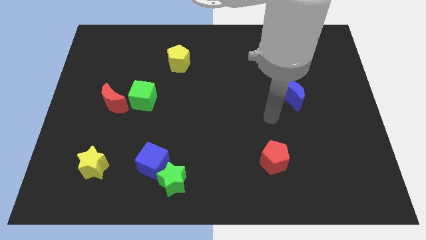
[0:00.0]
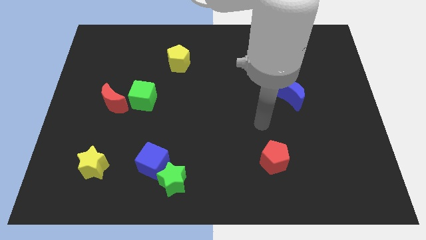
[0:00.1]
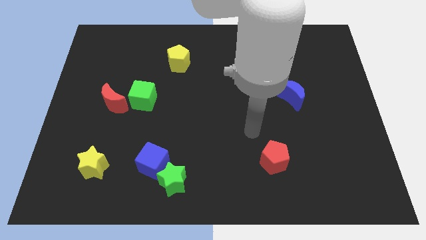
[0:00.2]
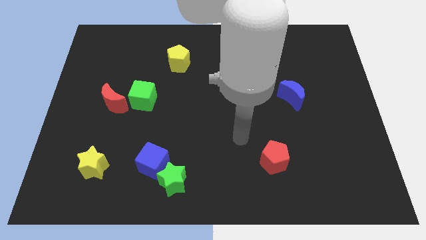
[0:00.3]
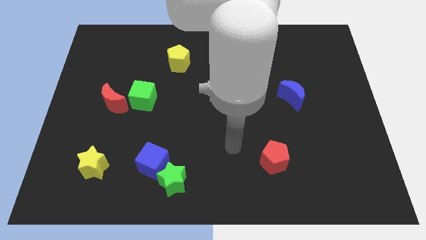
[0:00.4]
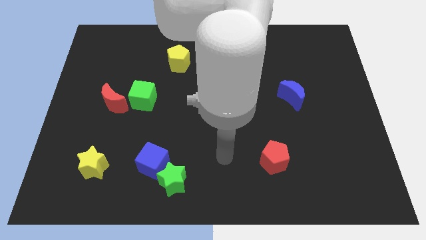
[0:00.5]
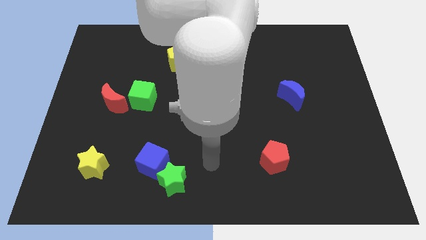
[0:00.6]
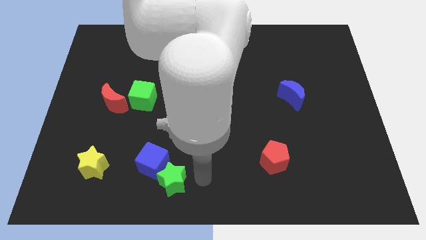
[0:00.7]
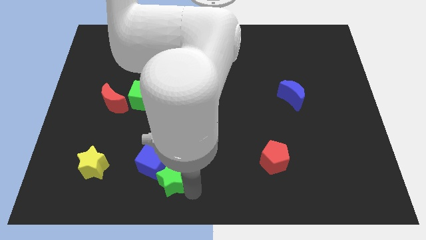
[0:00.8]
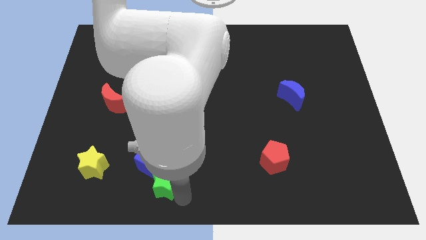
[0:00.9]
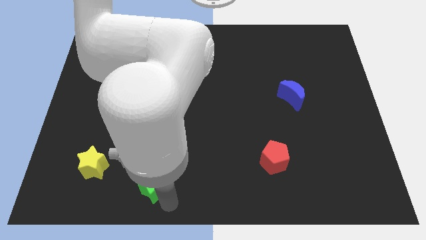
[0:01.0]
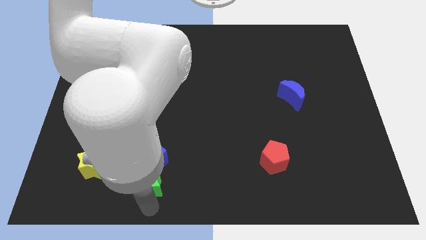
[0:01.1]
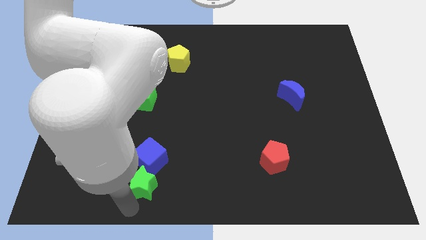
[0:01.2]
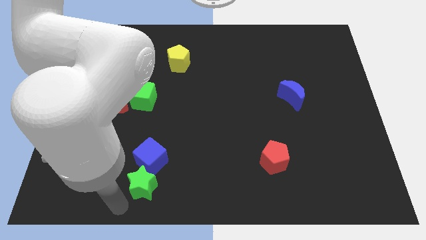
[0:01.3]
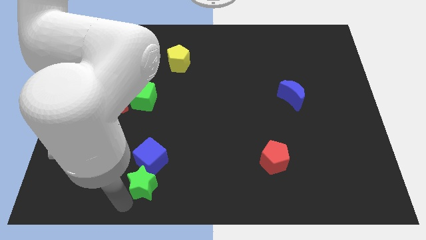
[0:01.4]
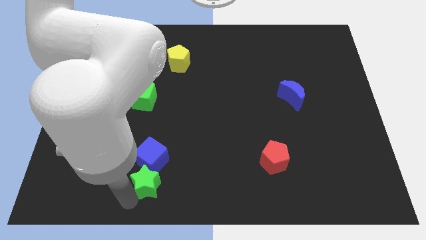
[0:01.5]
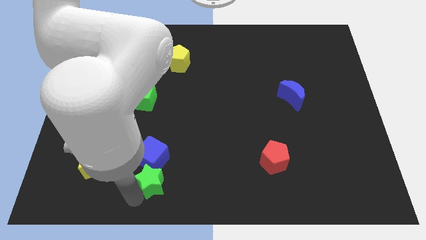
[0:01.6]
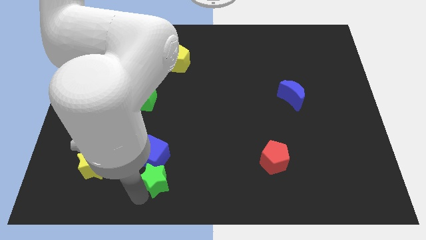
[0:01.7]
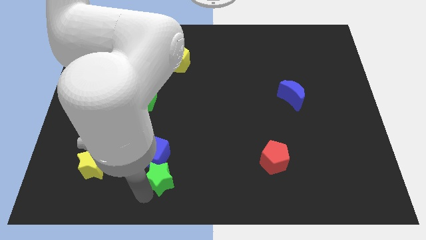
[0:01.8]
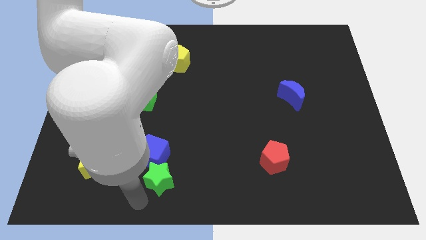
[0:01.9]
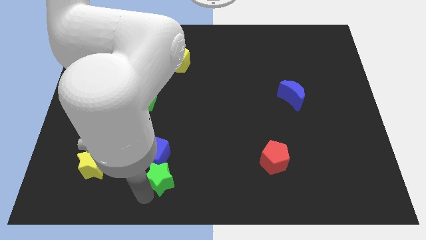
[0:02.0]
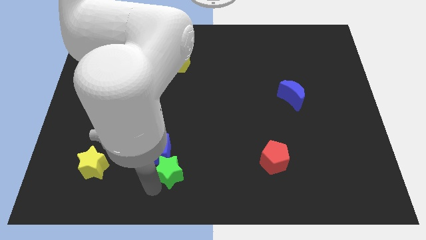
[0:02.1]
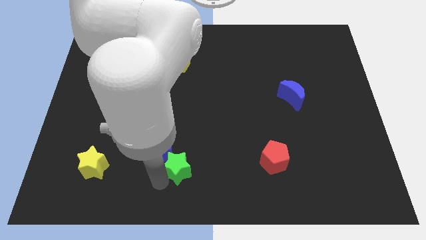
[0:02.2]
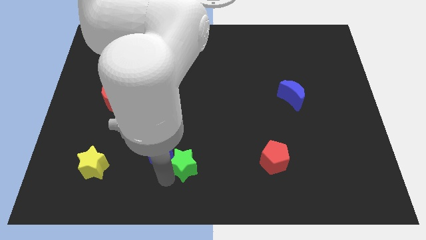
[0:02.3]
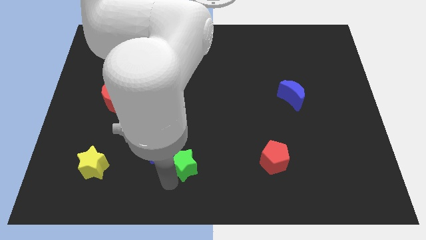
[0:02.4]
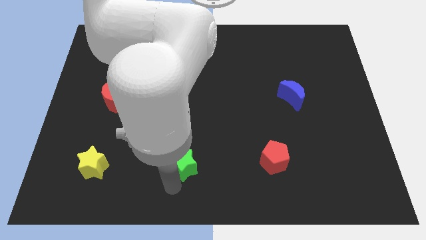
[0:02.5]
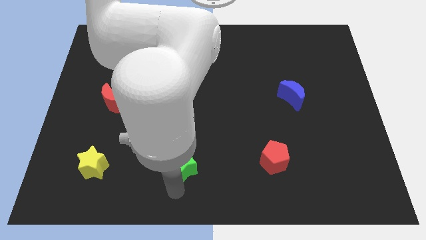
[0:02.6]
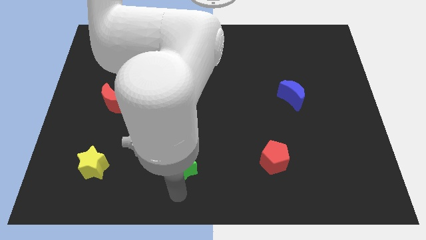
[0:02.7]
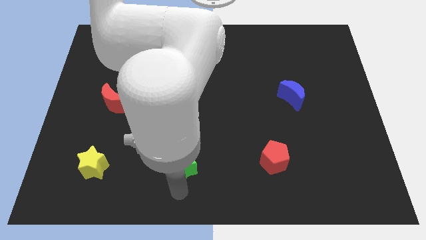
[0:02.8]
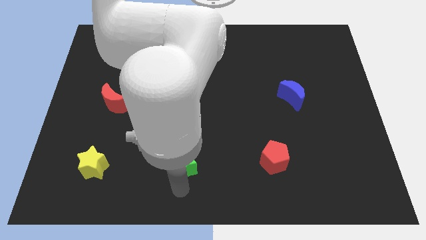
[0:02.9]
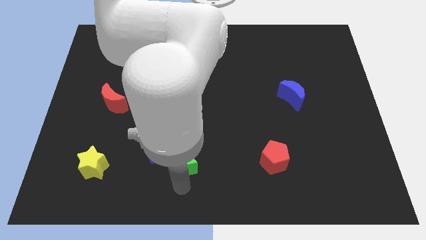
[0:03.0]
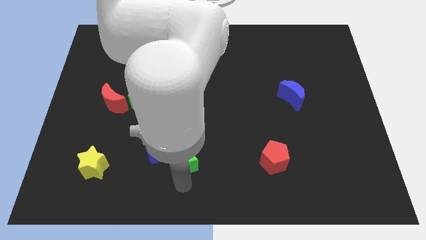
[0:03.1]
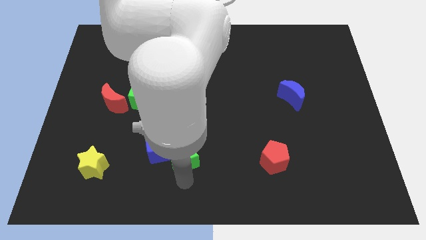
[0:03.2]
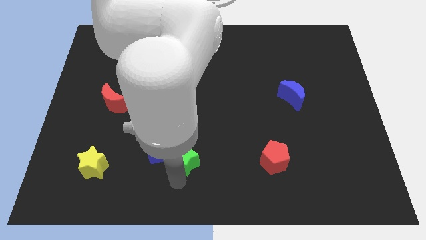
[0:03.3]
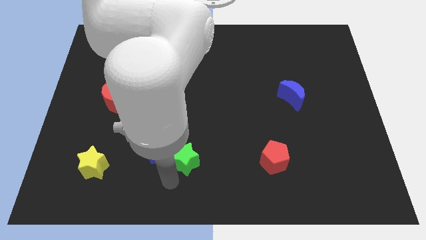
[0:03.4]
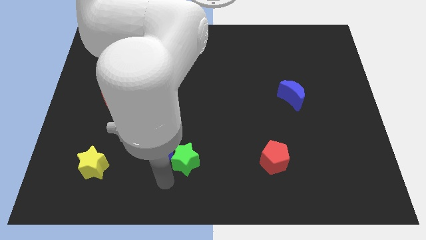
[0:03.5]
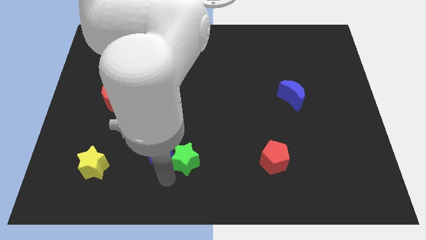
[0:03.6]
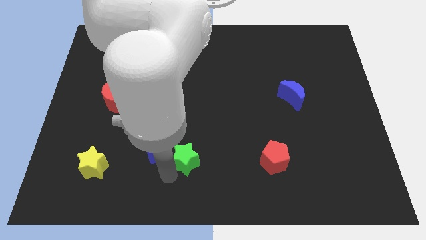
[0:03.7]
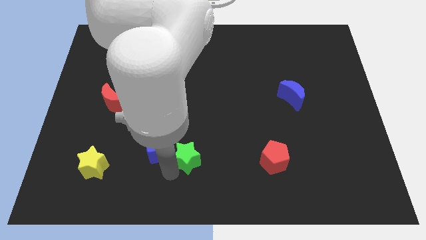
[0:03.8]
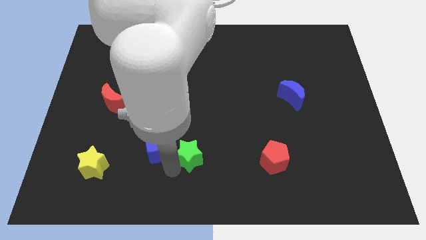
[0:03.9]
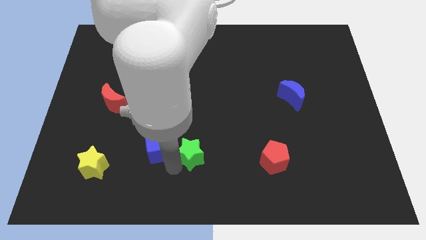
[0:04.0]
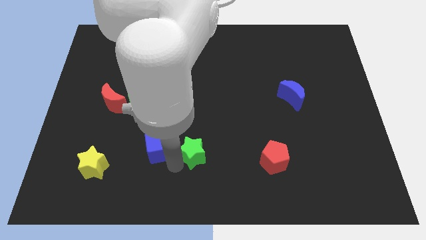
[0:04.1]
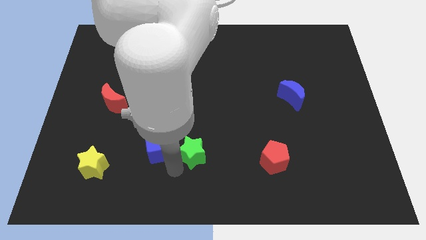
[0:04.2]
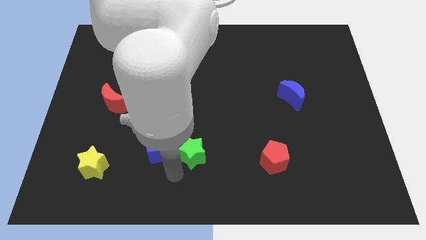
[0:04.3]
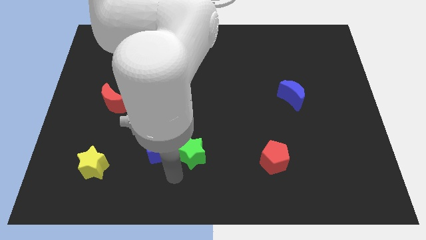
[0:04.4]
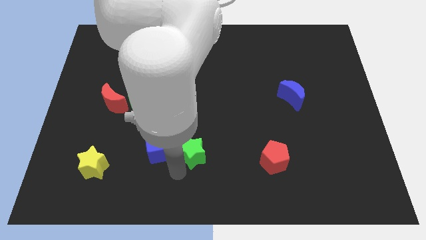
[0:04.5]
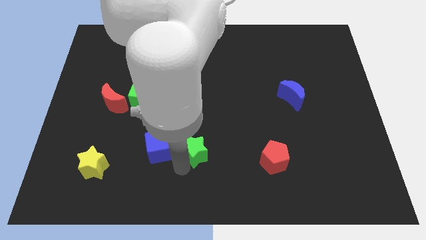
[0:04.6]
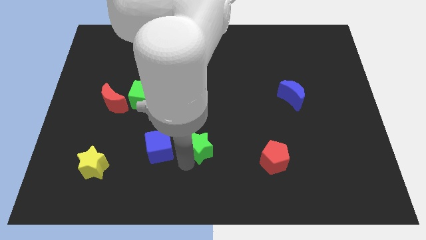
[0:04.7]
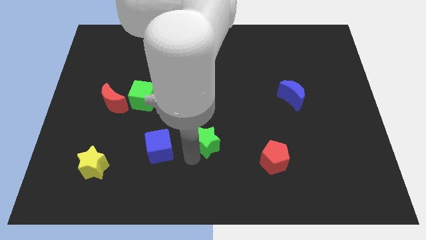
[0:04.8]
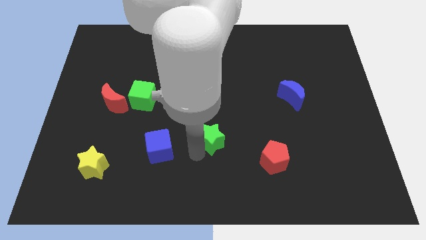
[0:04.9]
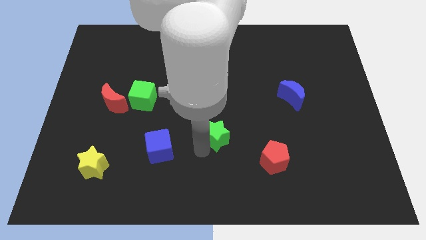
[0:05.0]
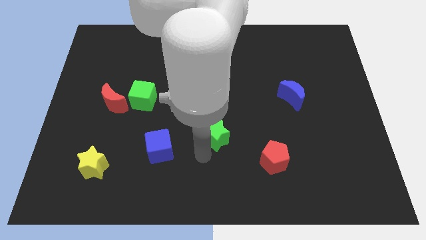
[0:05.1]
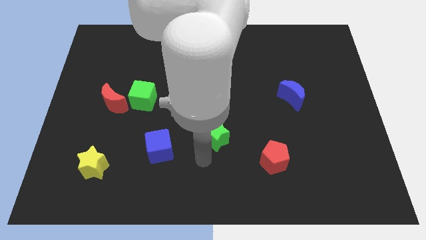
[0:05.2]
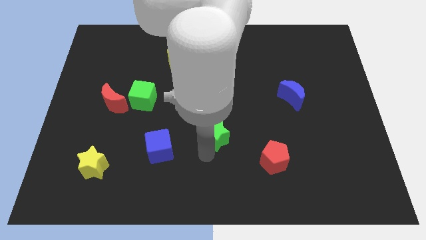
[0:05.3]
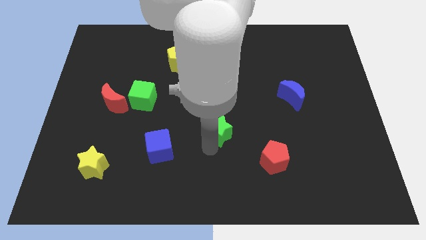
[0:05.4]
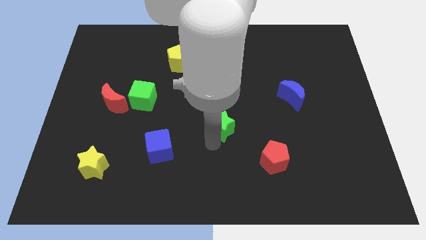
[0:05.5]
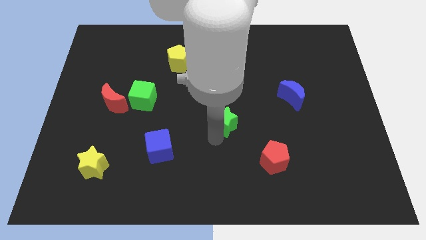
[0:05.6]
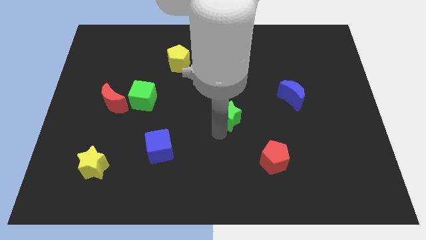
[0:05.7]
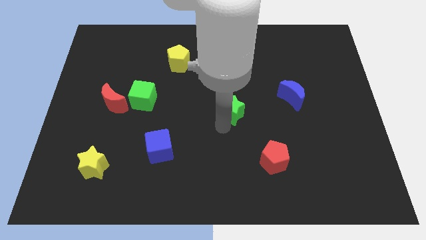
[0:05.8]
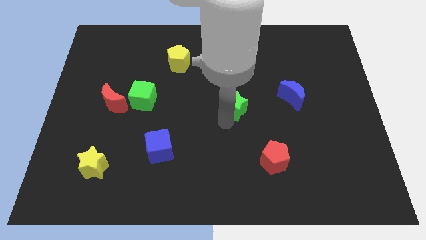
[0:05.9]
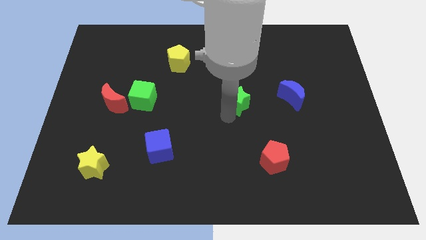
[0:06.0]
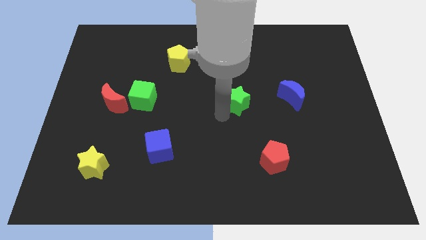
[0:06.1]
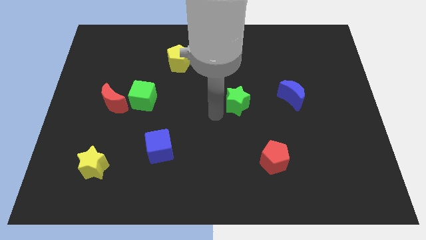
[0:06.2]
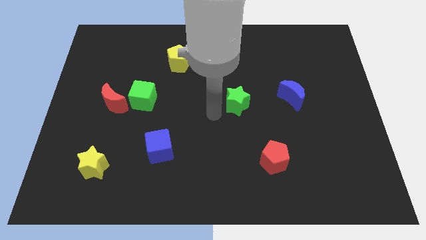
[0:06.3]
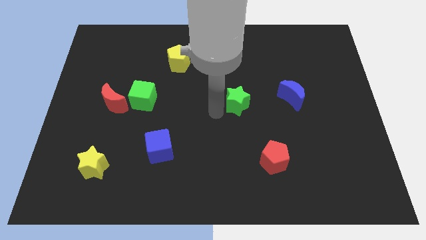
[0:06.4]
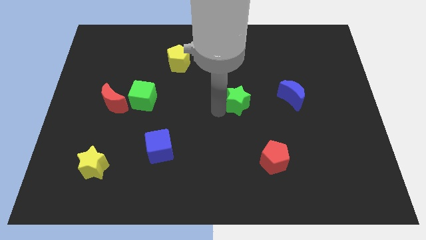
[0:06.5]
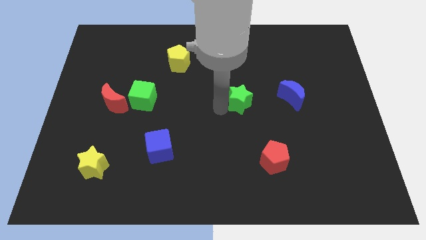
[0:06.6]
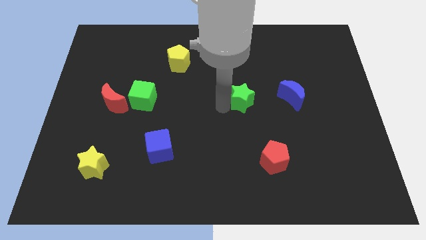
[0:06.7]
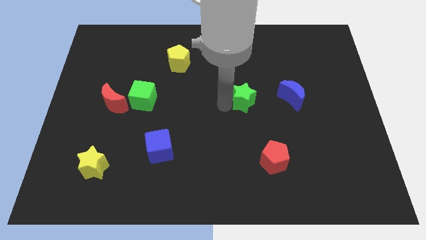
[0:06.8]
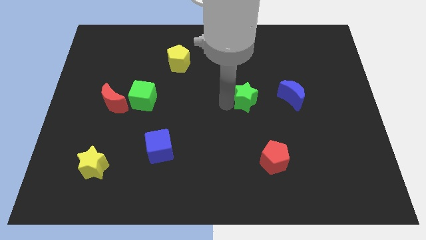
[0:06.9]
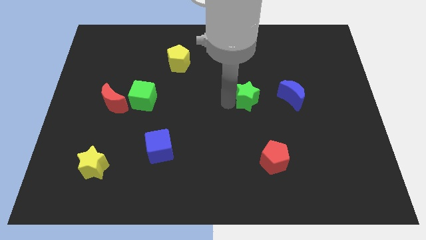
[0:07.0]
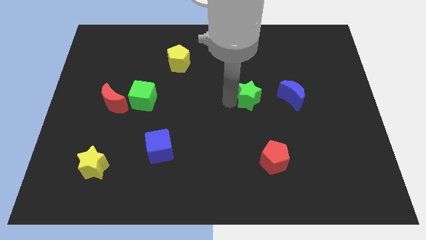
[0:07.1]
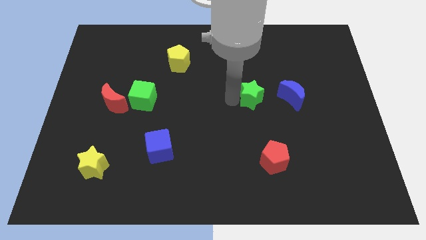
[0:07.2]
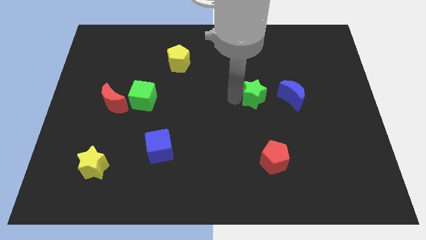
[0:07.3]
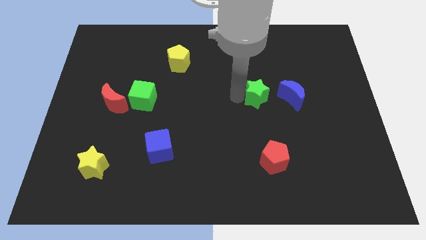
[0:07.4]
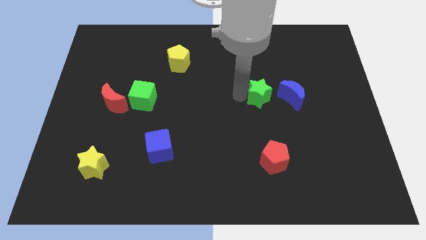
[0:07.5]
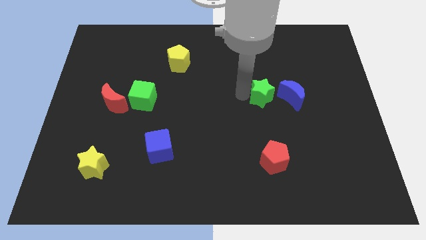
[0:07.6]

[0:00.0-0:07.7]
slide the green star diagonally up and to the left of the blue moon
